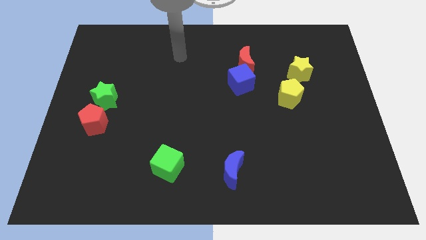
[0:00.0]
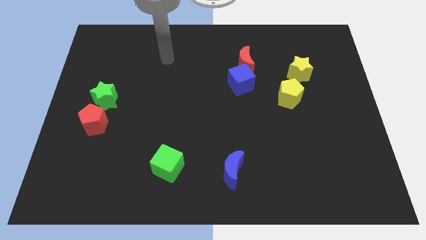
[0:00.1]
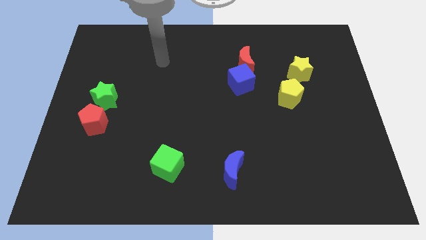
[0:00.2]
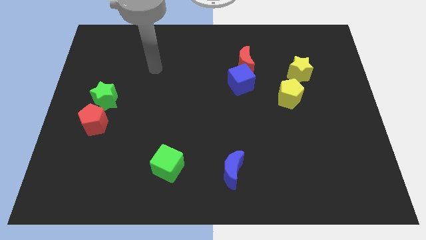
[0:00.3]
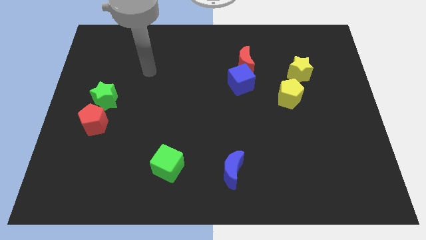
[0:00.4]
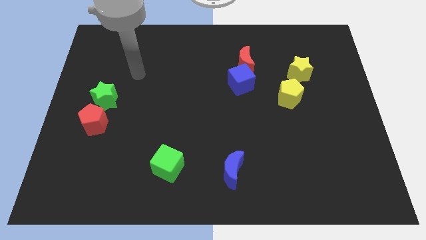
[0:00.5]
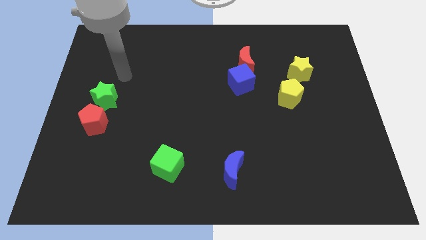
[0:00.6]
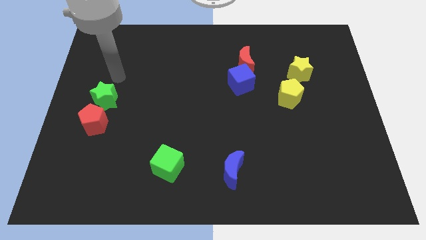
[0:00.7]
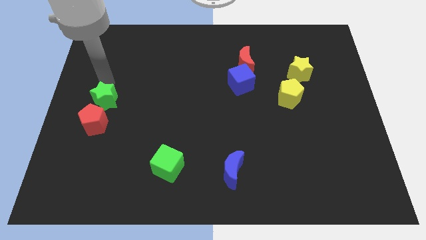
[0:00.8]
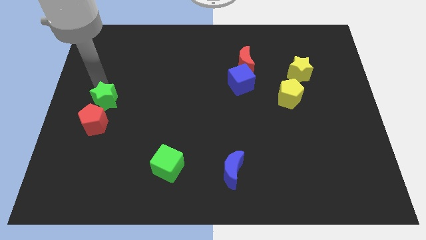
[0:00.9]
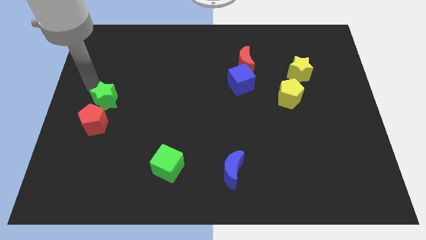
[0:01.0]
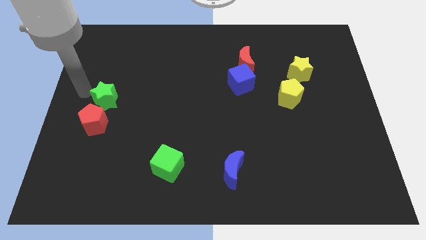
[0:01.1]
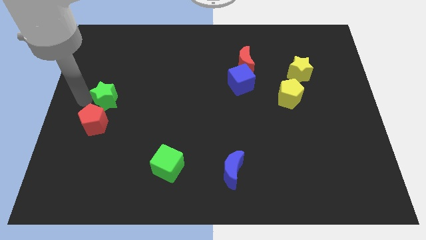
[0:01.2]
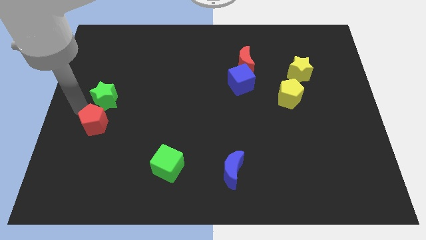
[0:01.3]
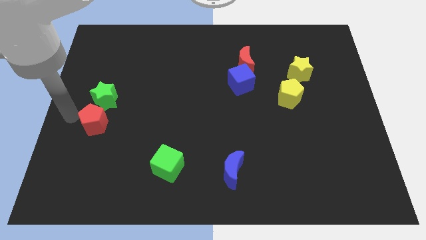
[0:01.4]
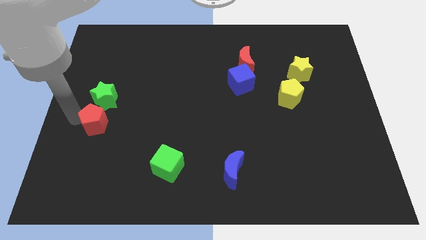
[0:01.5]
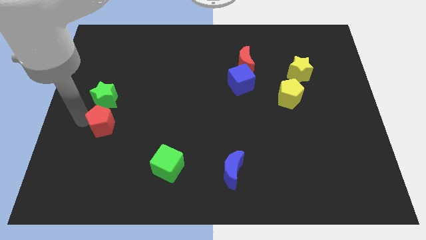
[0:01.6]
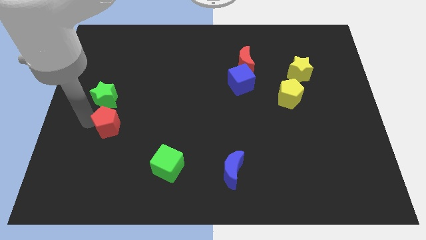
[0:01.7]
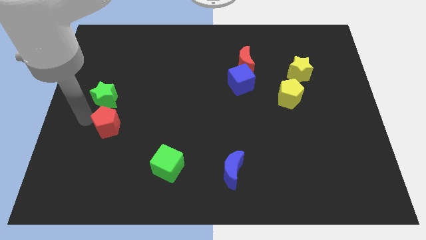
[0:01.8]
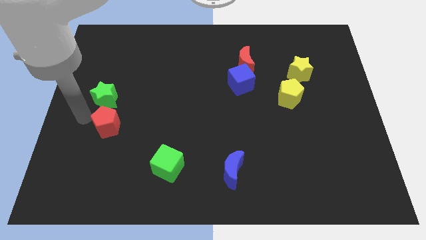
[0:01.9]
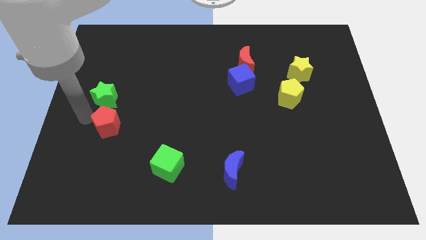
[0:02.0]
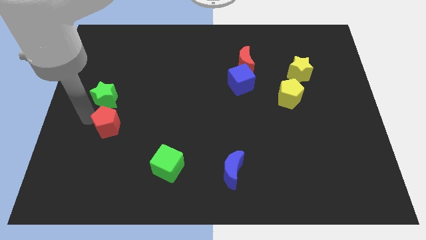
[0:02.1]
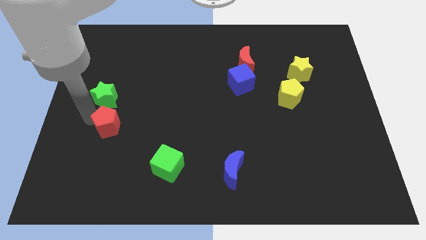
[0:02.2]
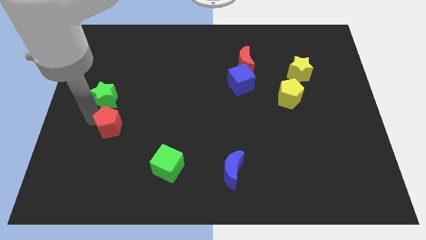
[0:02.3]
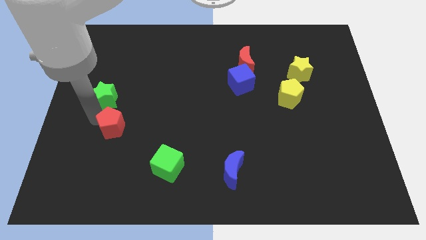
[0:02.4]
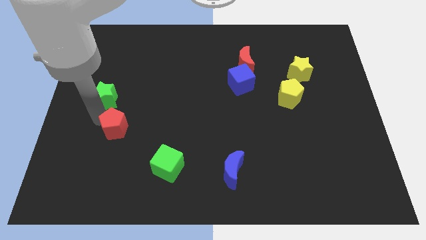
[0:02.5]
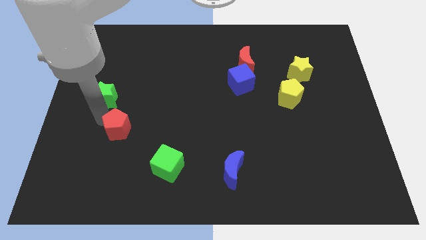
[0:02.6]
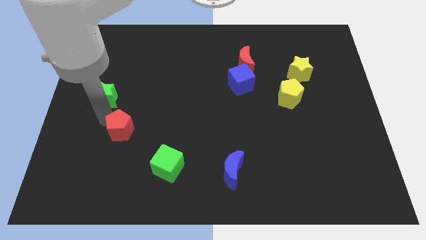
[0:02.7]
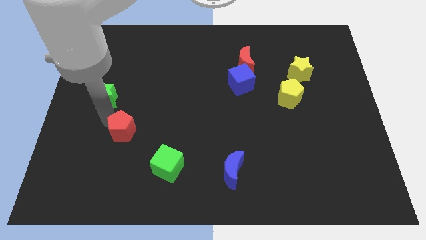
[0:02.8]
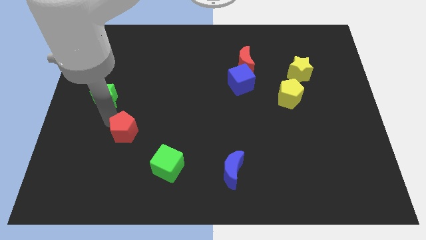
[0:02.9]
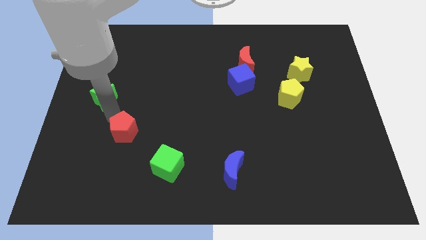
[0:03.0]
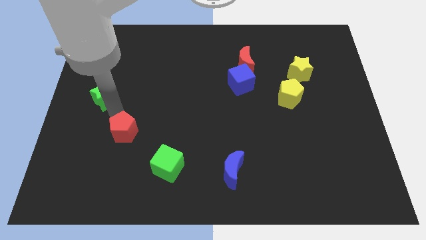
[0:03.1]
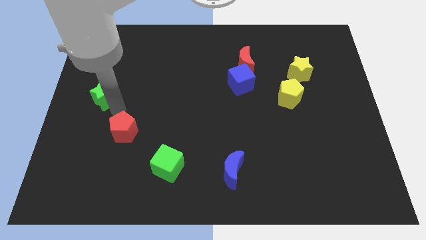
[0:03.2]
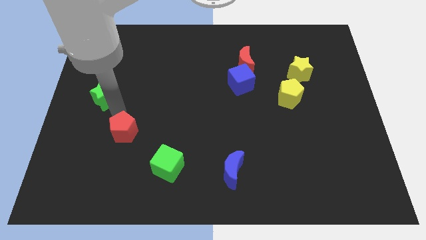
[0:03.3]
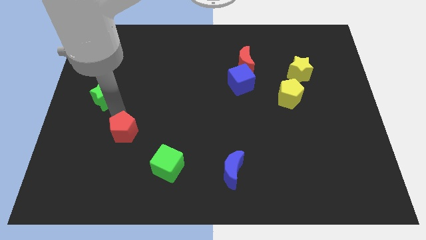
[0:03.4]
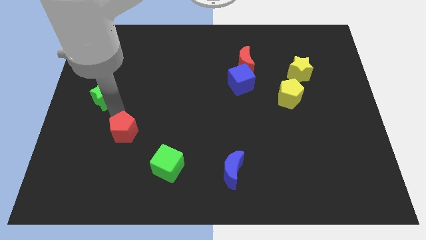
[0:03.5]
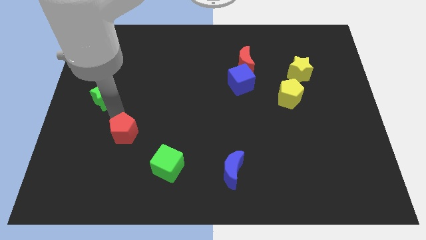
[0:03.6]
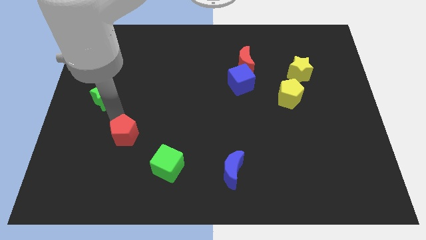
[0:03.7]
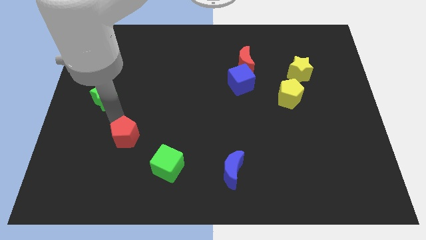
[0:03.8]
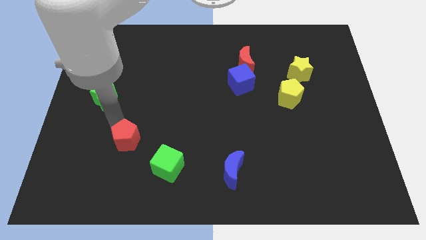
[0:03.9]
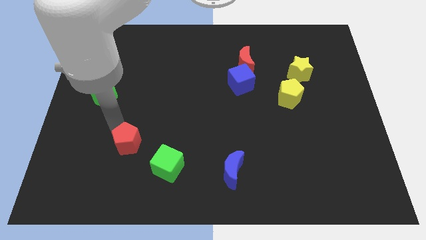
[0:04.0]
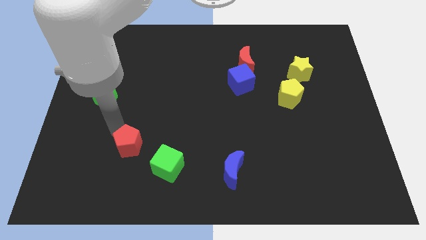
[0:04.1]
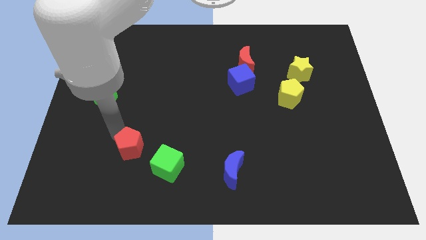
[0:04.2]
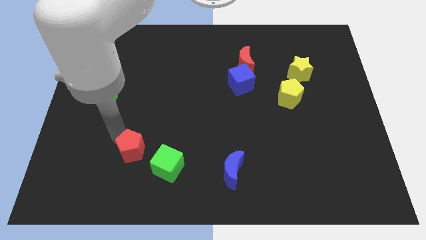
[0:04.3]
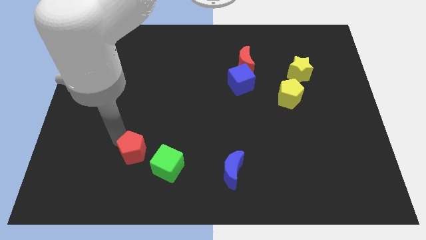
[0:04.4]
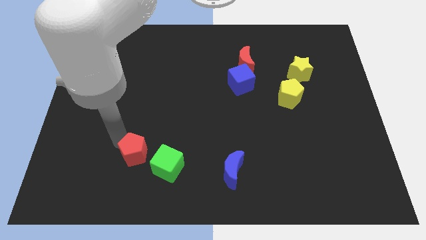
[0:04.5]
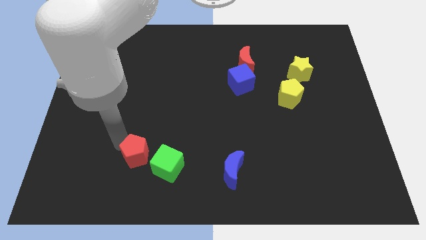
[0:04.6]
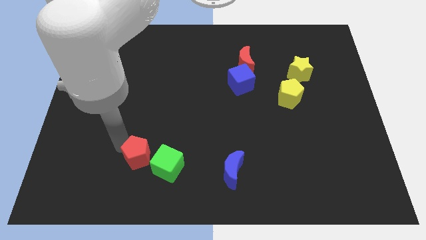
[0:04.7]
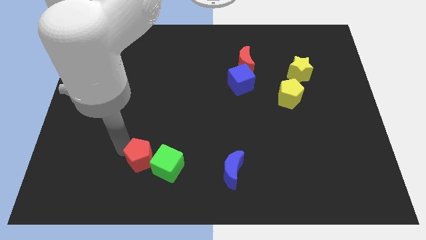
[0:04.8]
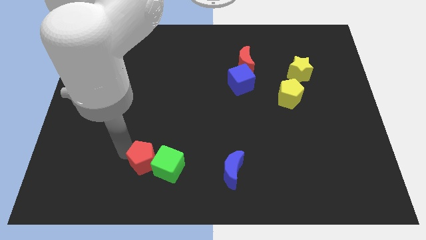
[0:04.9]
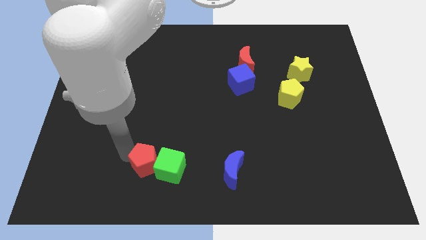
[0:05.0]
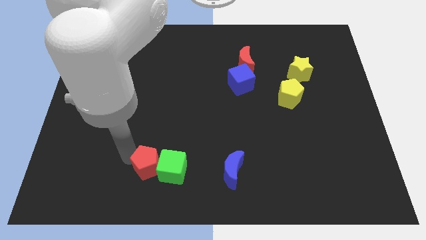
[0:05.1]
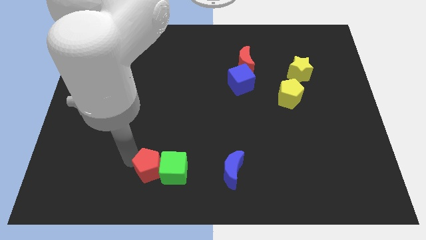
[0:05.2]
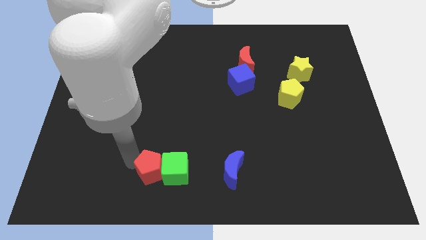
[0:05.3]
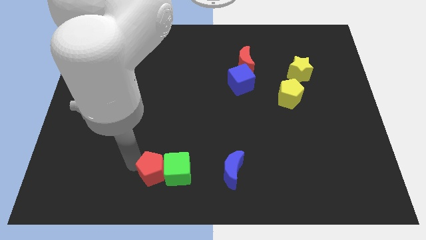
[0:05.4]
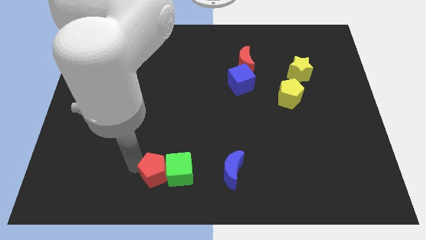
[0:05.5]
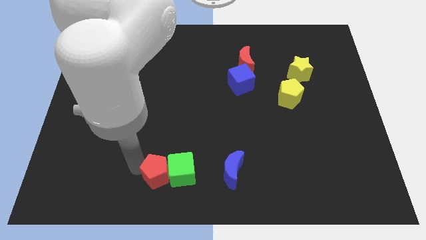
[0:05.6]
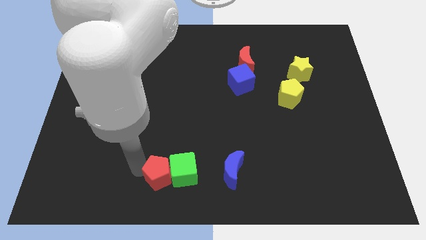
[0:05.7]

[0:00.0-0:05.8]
move the red pentagon to the bottom side

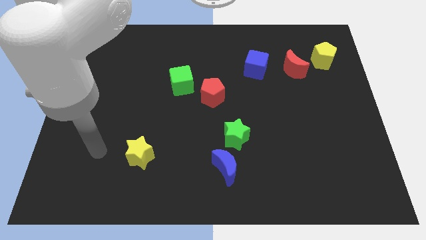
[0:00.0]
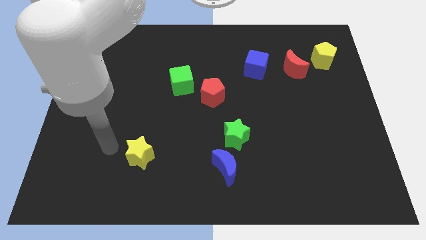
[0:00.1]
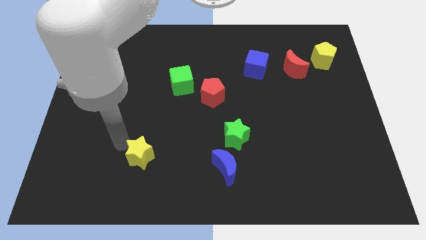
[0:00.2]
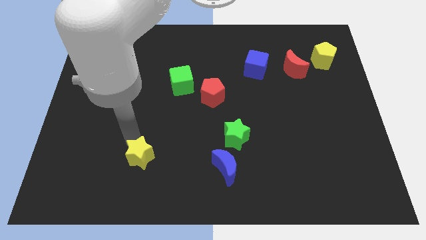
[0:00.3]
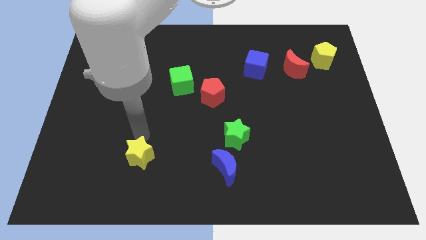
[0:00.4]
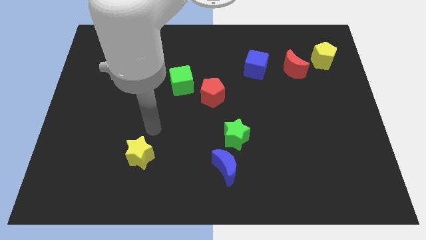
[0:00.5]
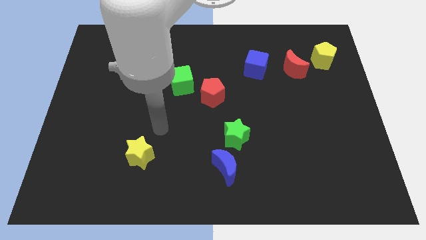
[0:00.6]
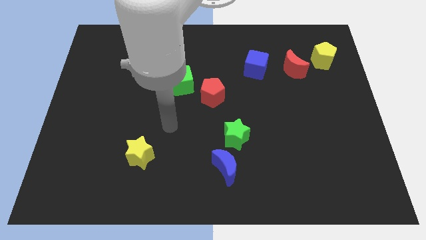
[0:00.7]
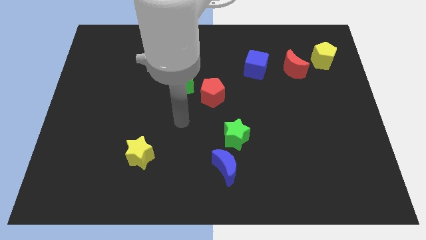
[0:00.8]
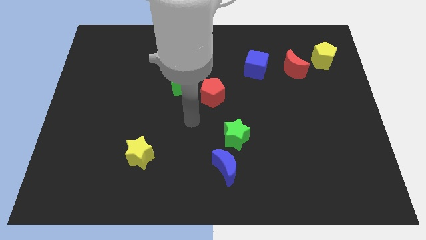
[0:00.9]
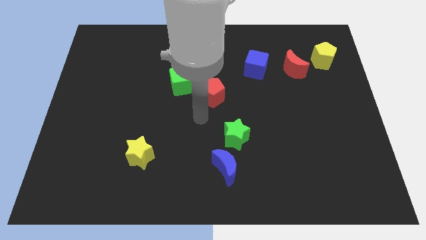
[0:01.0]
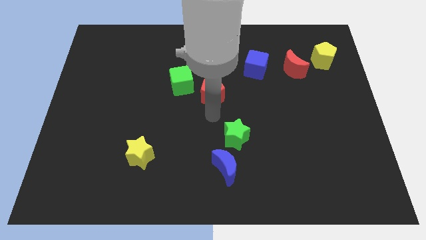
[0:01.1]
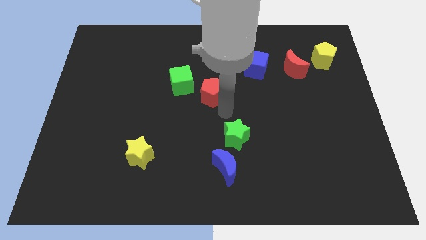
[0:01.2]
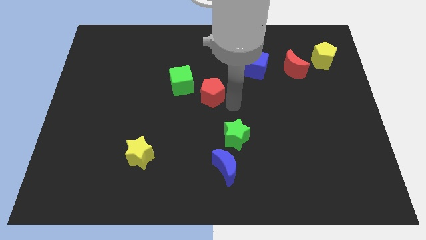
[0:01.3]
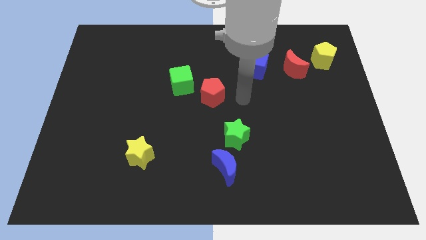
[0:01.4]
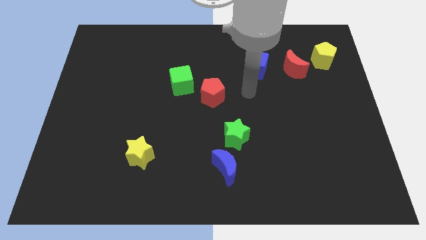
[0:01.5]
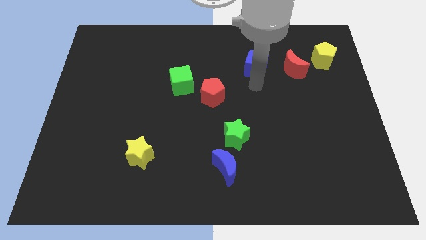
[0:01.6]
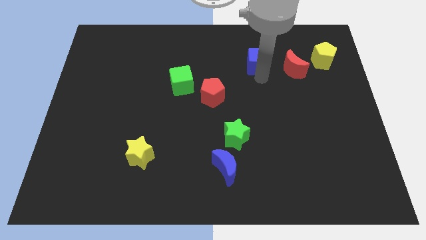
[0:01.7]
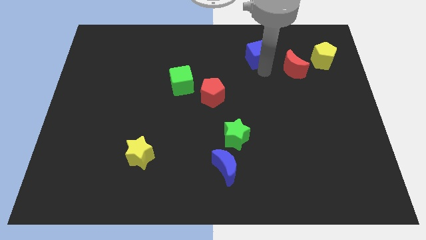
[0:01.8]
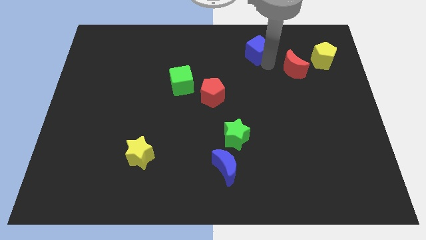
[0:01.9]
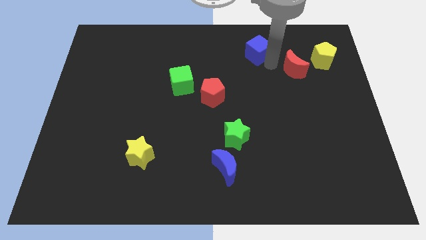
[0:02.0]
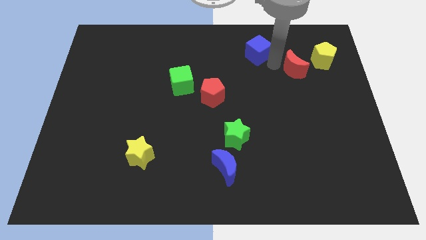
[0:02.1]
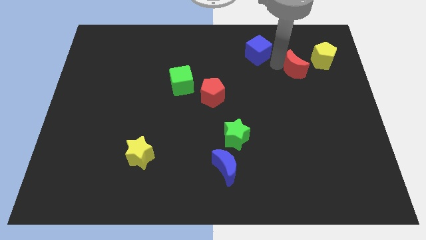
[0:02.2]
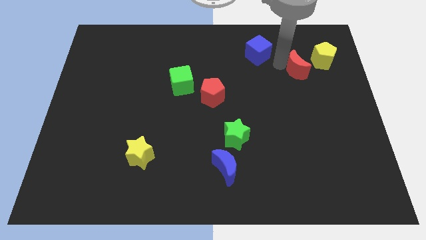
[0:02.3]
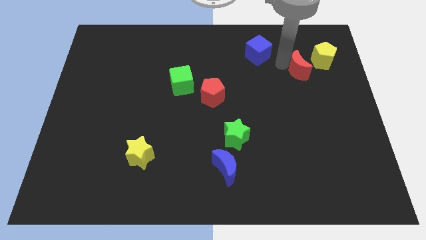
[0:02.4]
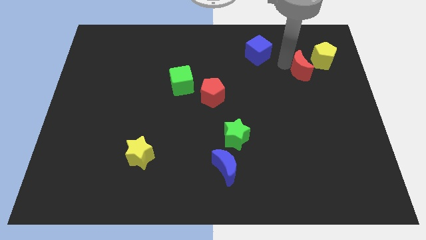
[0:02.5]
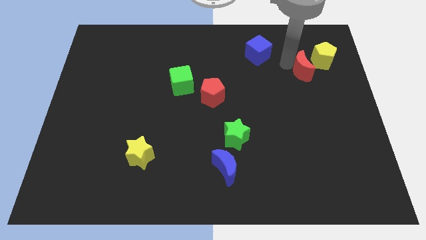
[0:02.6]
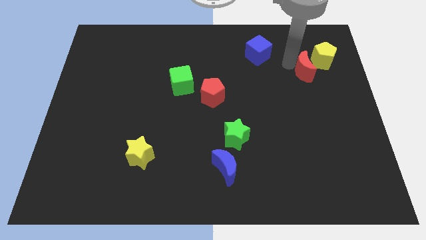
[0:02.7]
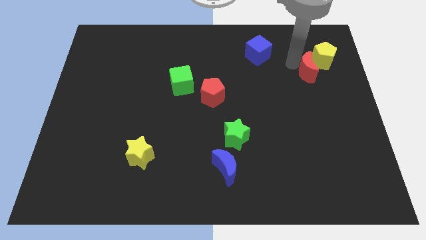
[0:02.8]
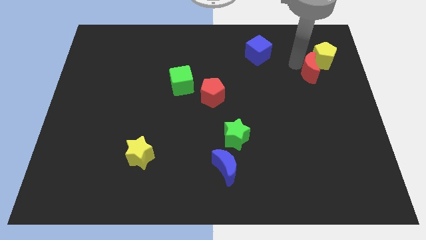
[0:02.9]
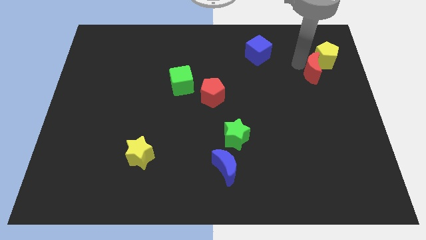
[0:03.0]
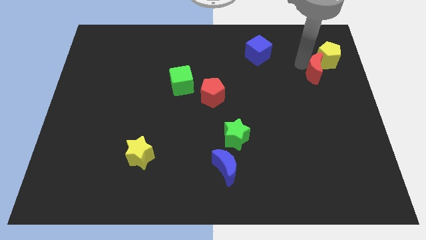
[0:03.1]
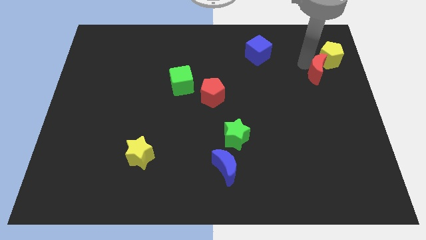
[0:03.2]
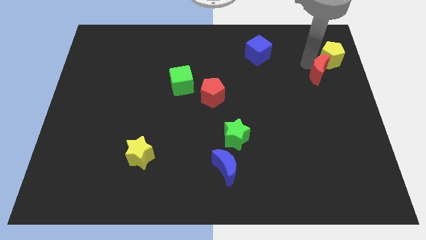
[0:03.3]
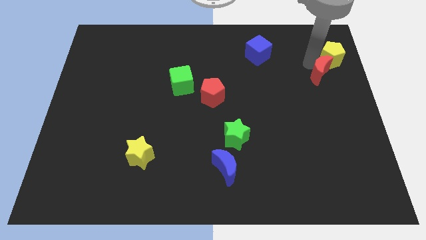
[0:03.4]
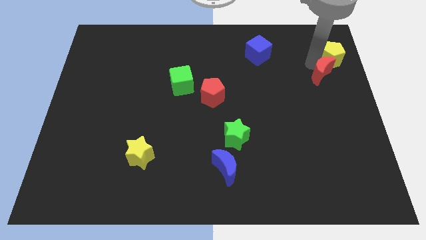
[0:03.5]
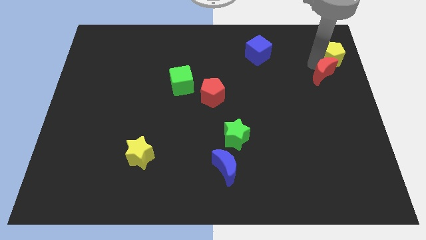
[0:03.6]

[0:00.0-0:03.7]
push the red moon to the center right
